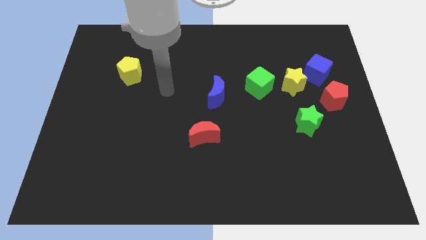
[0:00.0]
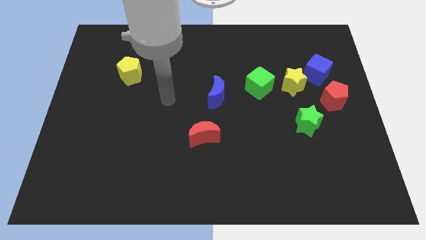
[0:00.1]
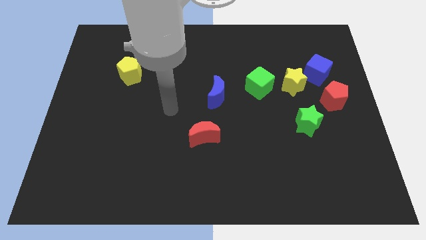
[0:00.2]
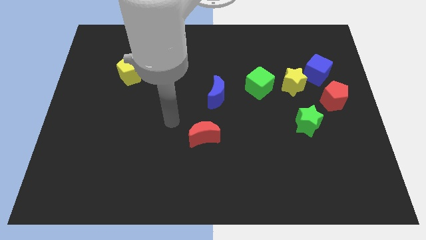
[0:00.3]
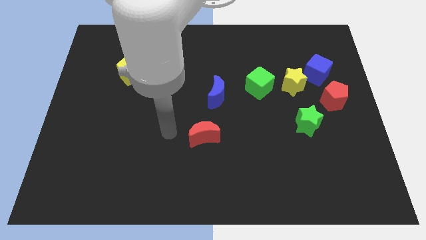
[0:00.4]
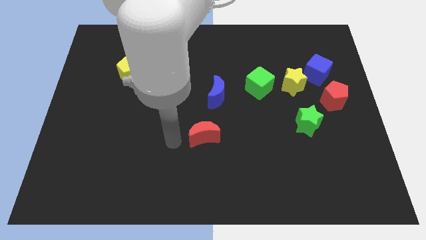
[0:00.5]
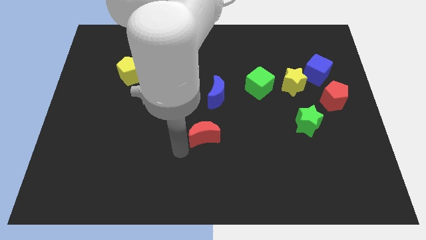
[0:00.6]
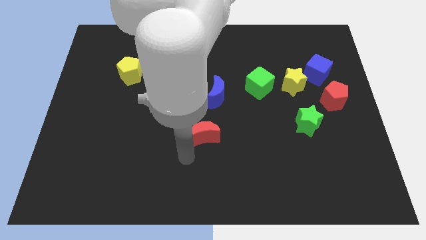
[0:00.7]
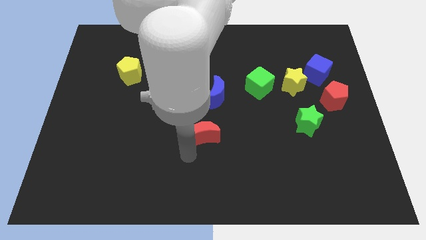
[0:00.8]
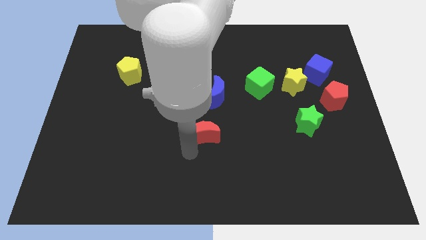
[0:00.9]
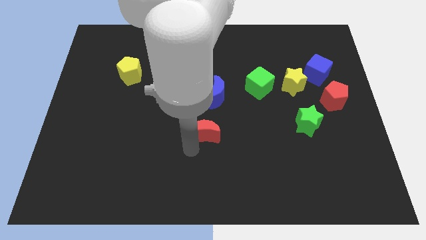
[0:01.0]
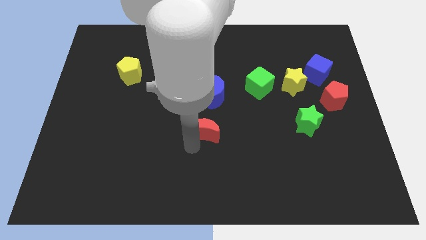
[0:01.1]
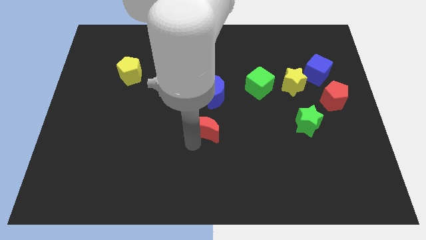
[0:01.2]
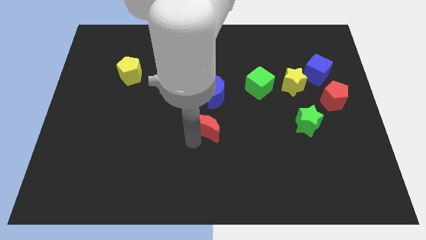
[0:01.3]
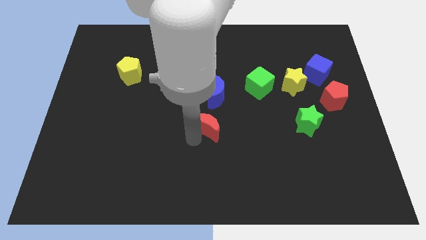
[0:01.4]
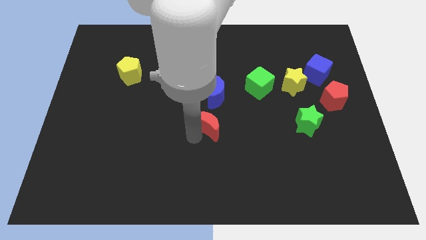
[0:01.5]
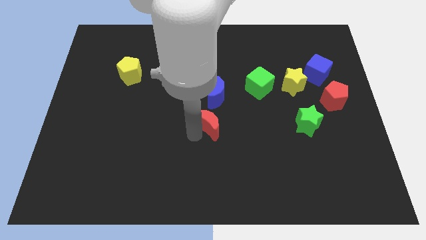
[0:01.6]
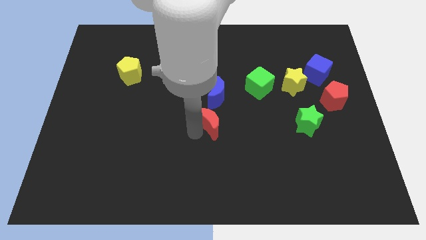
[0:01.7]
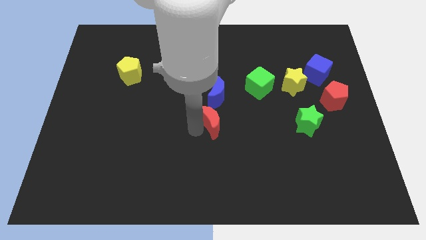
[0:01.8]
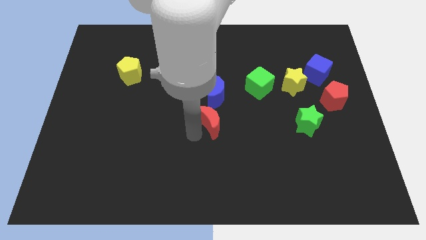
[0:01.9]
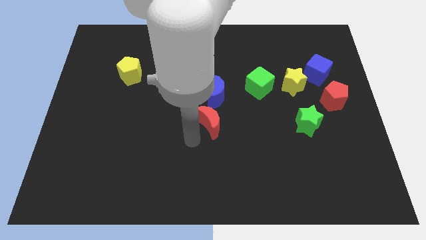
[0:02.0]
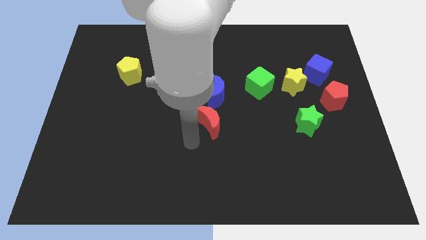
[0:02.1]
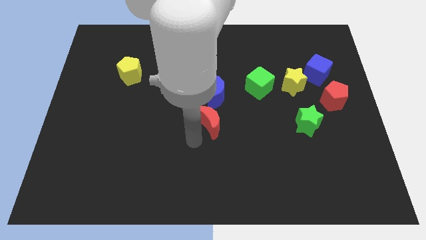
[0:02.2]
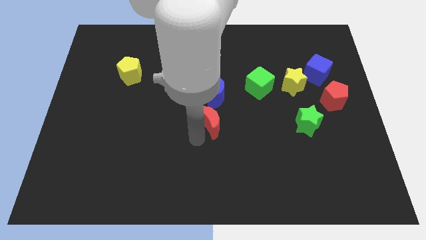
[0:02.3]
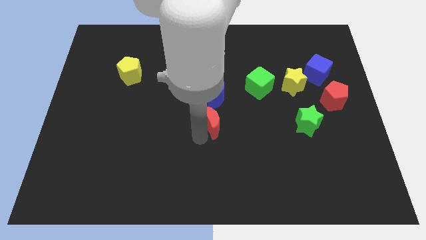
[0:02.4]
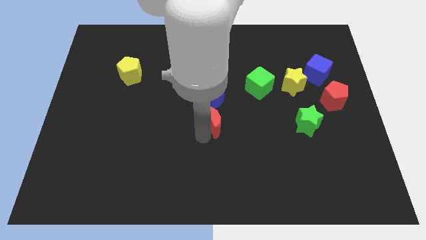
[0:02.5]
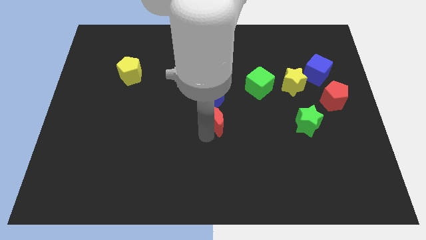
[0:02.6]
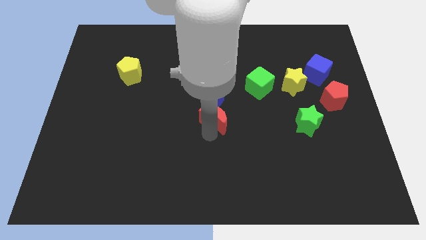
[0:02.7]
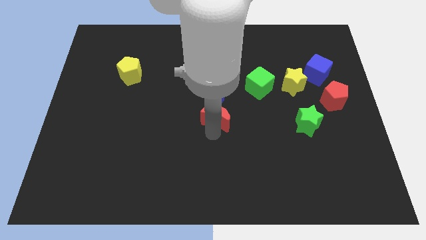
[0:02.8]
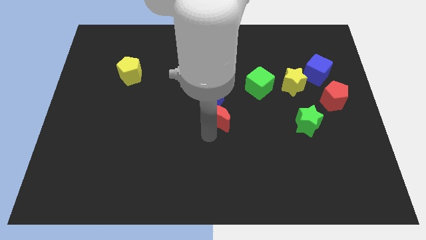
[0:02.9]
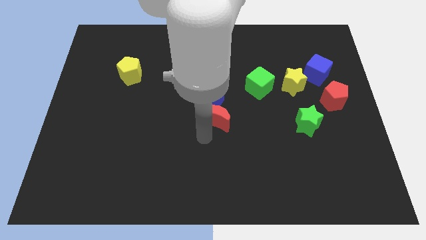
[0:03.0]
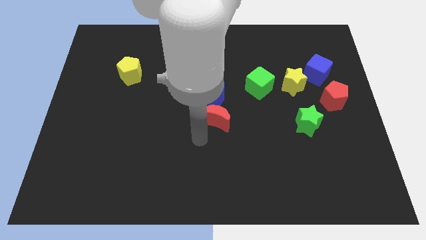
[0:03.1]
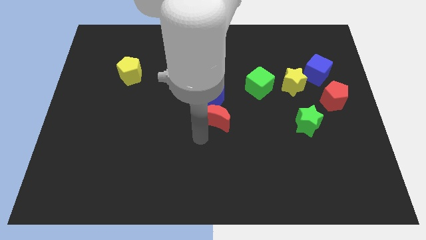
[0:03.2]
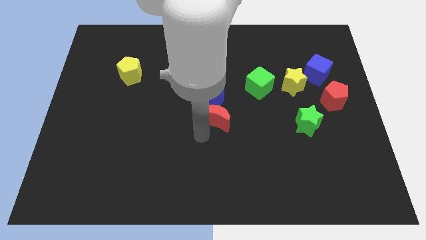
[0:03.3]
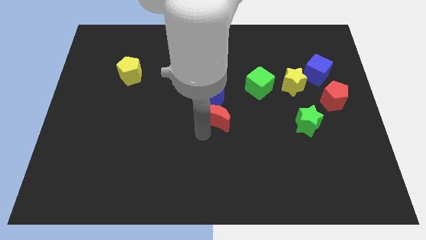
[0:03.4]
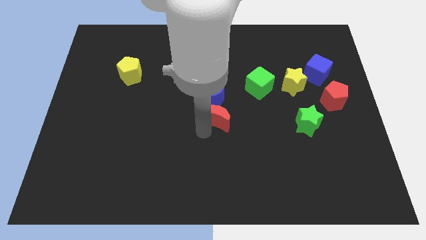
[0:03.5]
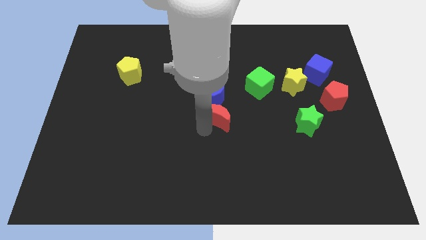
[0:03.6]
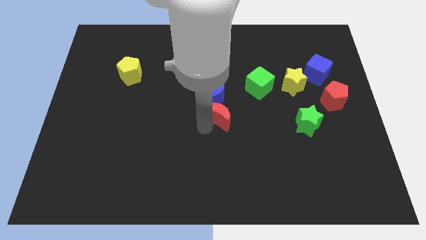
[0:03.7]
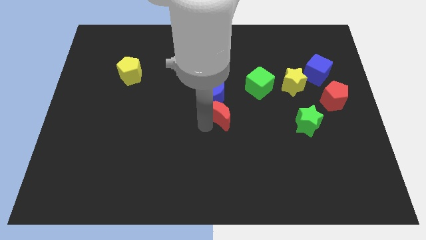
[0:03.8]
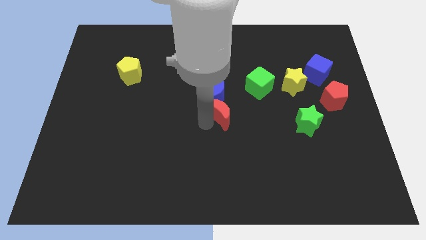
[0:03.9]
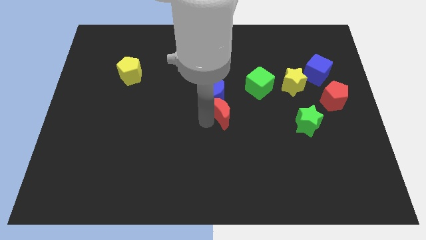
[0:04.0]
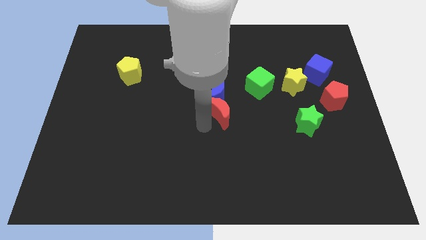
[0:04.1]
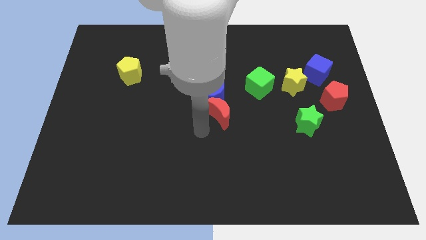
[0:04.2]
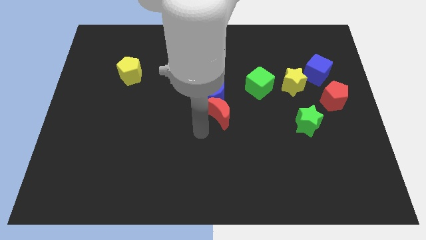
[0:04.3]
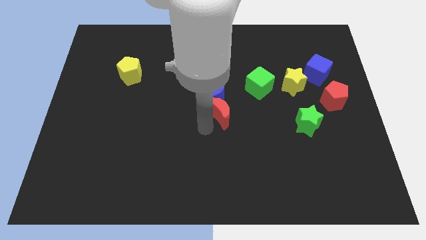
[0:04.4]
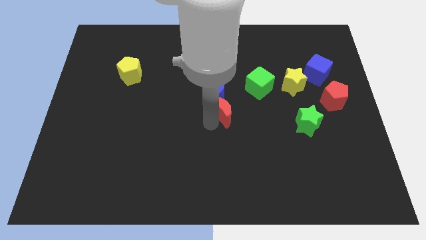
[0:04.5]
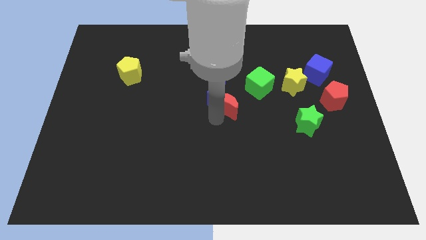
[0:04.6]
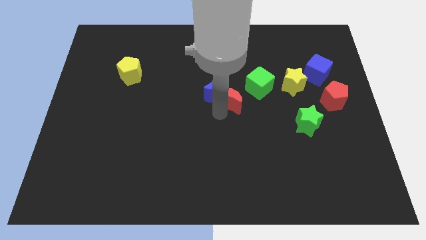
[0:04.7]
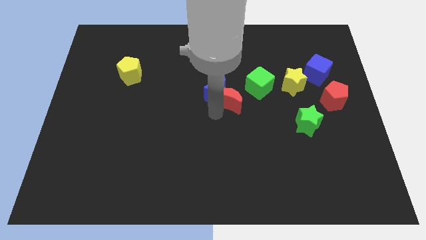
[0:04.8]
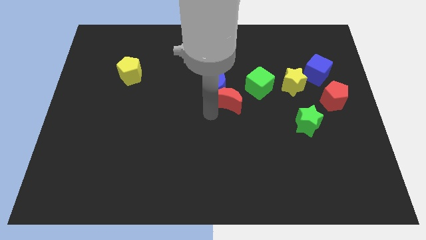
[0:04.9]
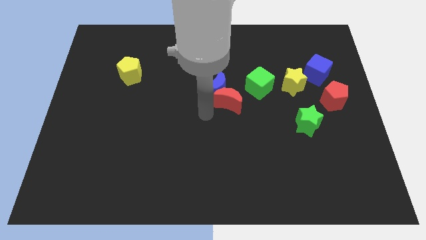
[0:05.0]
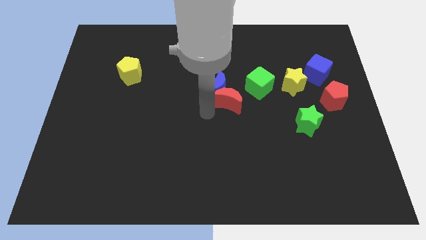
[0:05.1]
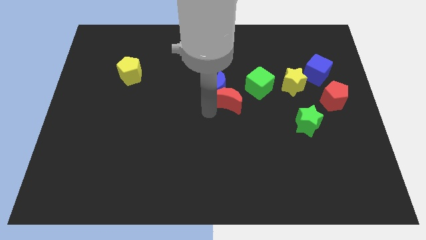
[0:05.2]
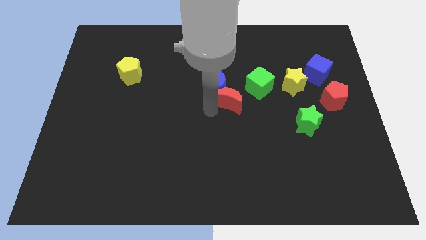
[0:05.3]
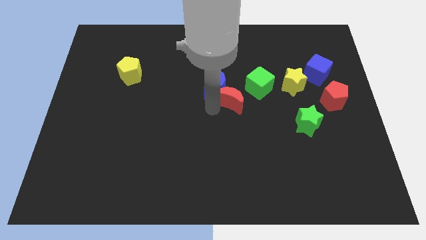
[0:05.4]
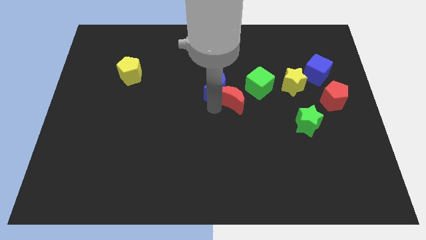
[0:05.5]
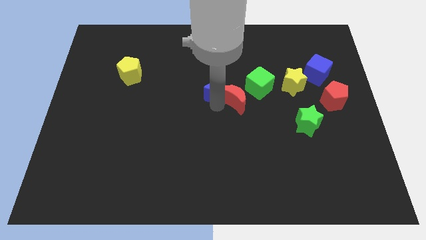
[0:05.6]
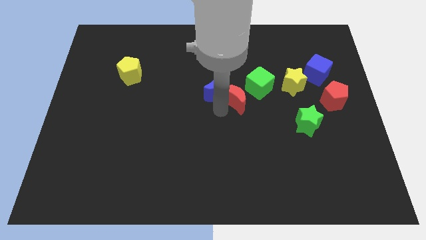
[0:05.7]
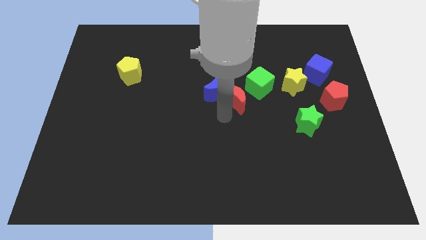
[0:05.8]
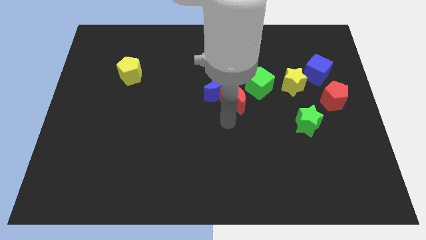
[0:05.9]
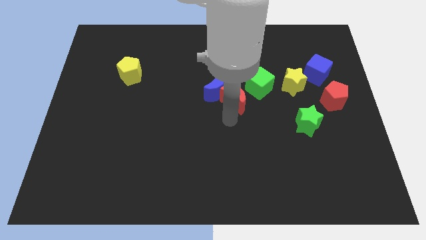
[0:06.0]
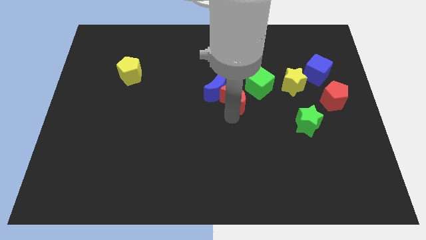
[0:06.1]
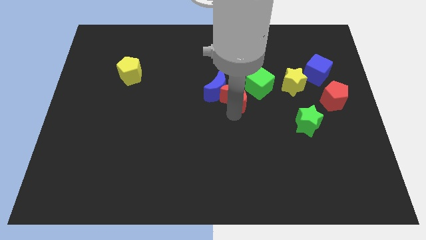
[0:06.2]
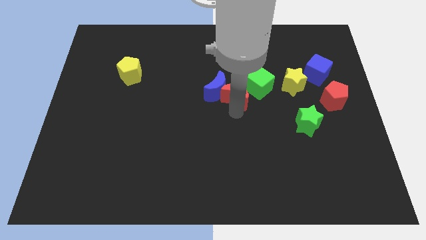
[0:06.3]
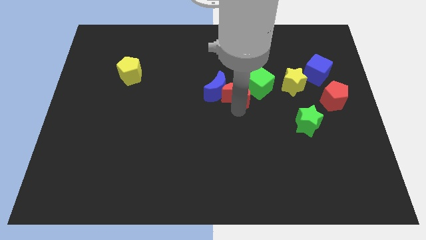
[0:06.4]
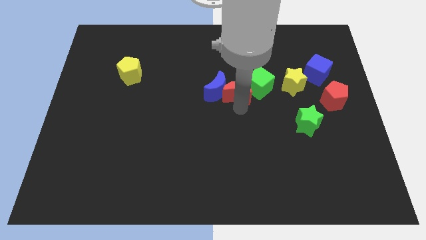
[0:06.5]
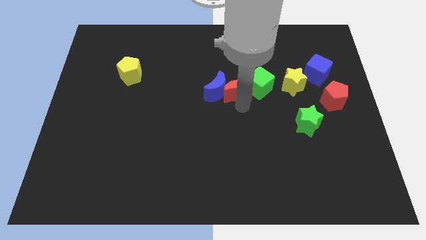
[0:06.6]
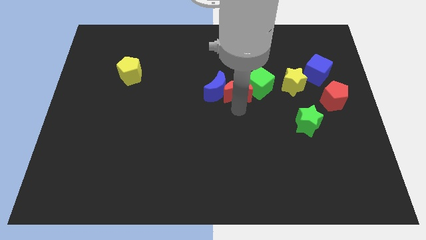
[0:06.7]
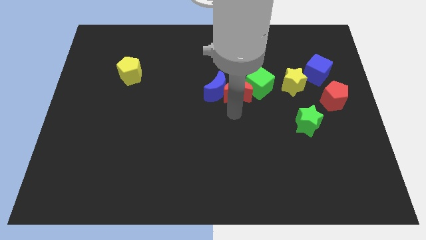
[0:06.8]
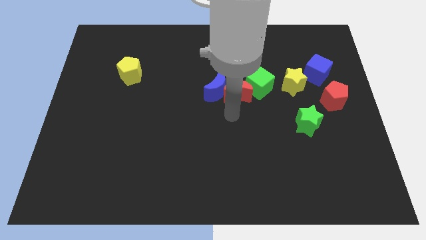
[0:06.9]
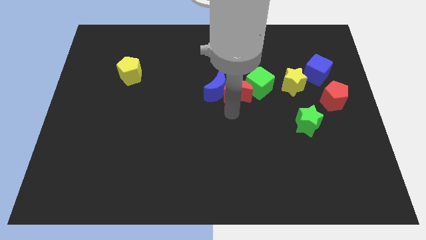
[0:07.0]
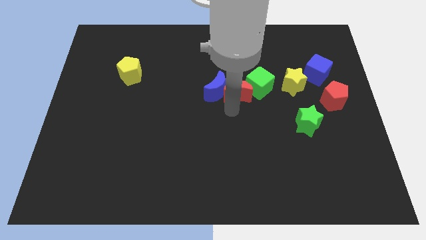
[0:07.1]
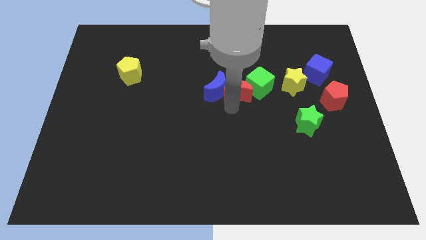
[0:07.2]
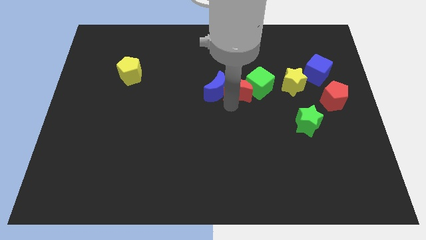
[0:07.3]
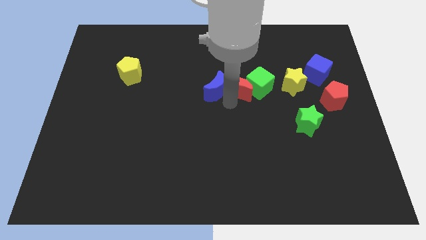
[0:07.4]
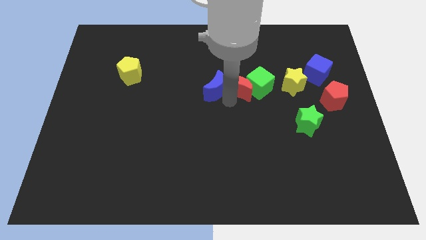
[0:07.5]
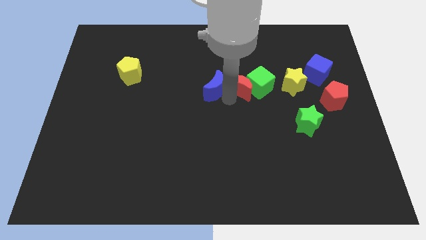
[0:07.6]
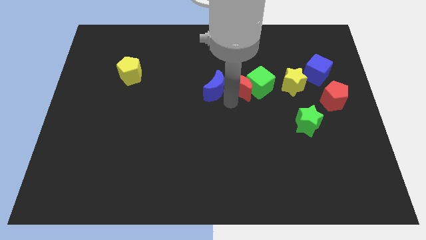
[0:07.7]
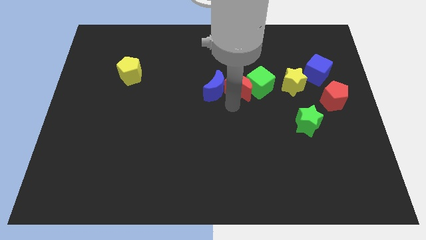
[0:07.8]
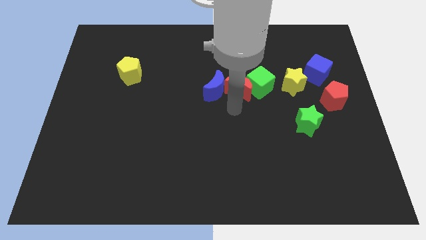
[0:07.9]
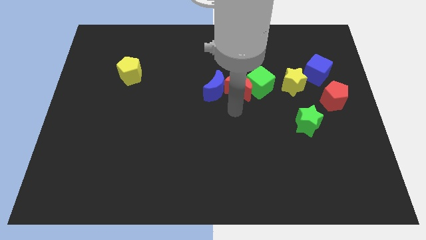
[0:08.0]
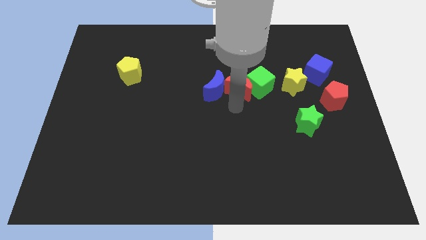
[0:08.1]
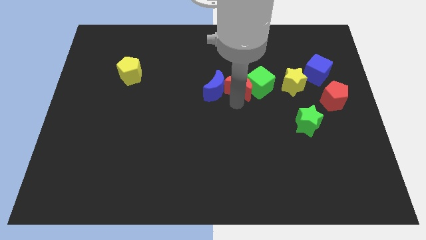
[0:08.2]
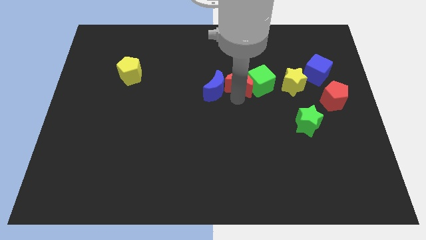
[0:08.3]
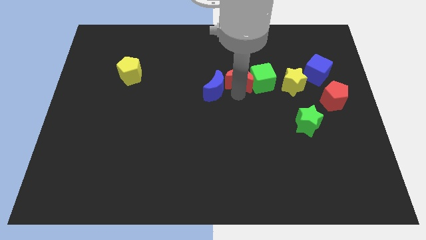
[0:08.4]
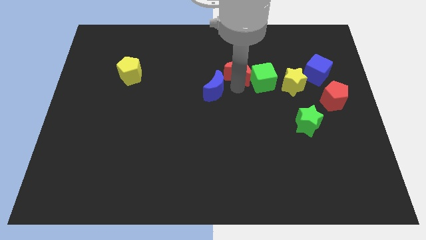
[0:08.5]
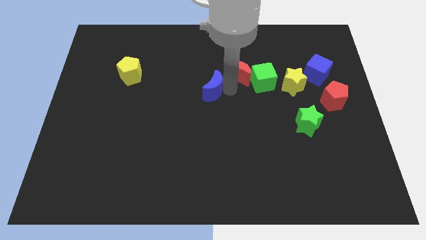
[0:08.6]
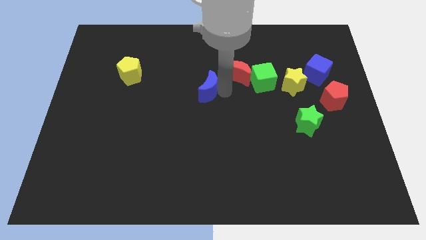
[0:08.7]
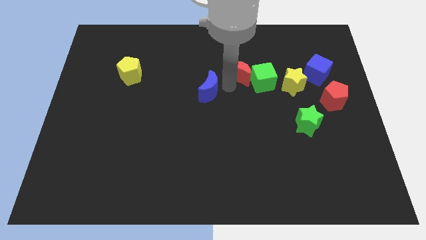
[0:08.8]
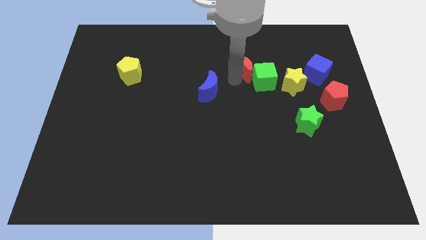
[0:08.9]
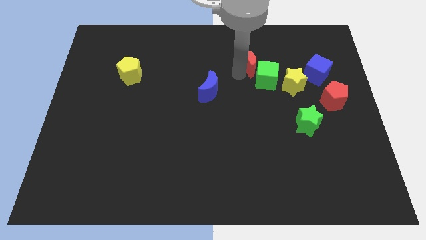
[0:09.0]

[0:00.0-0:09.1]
put the red moon above the green cube
